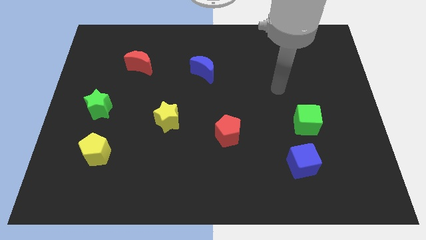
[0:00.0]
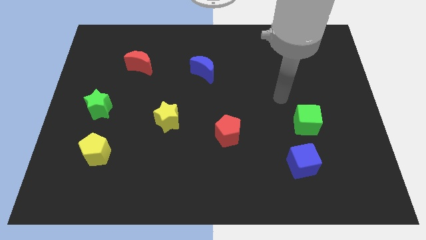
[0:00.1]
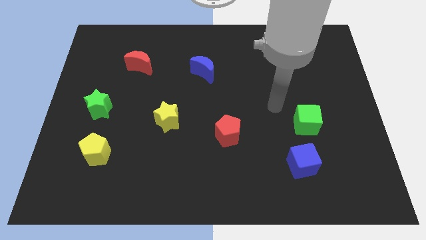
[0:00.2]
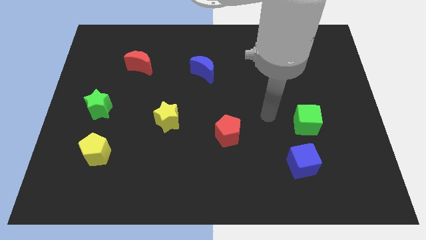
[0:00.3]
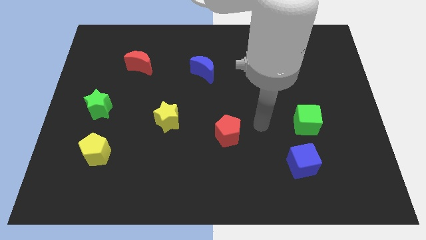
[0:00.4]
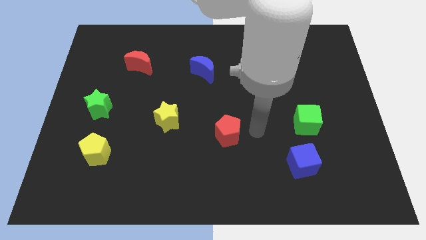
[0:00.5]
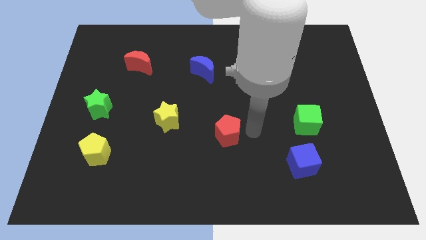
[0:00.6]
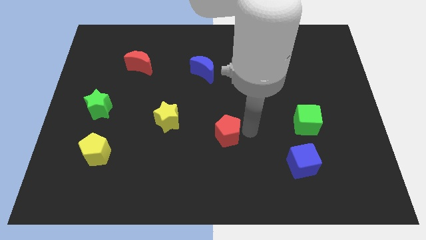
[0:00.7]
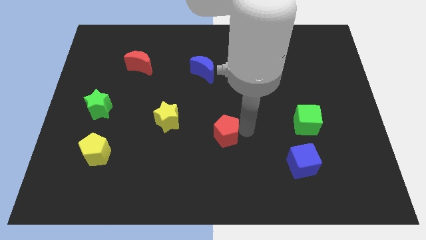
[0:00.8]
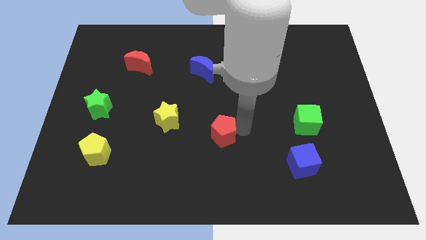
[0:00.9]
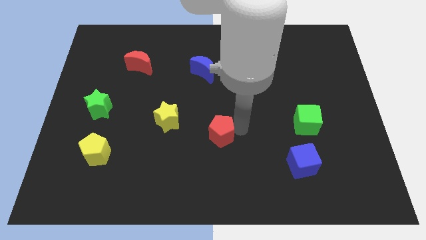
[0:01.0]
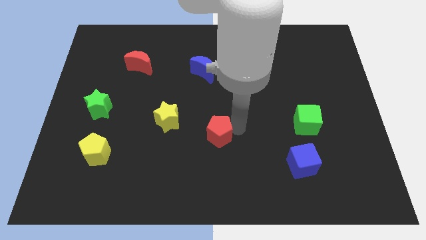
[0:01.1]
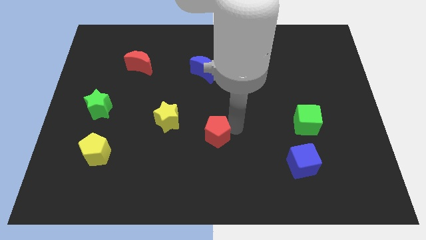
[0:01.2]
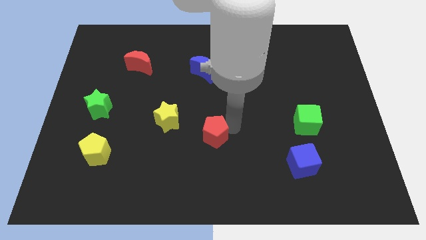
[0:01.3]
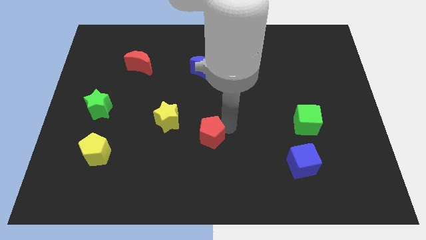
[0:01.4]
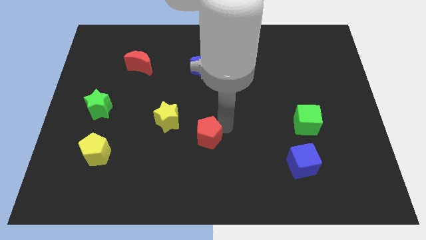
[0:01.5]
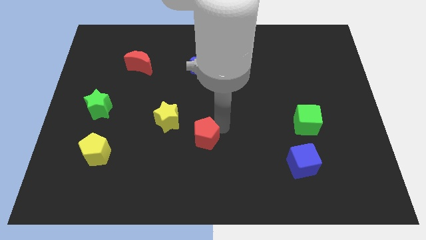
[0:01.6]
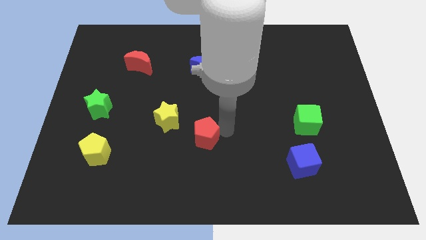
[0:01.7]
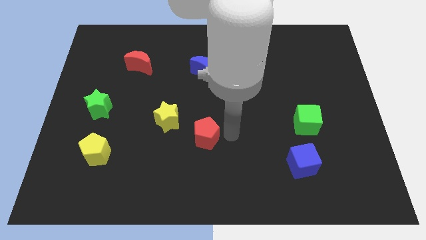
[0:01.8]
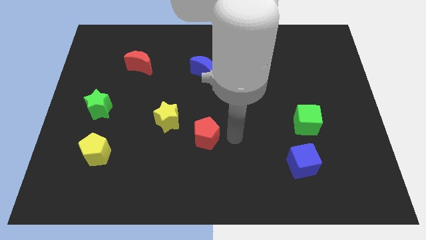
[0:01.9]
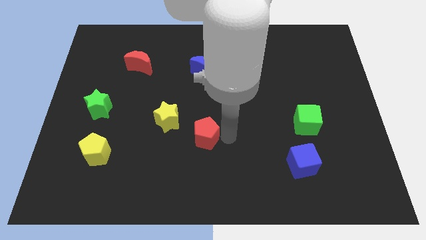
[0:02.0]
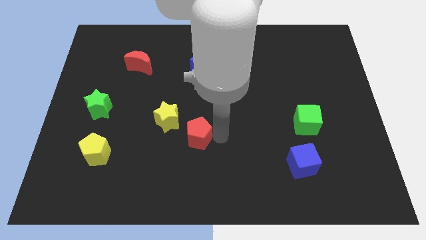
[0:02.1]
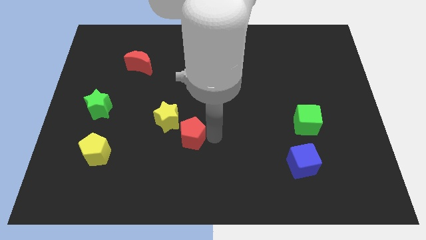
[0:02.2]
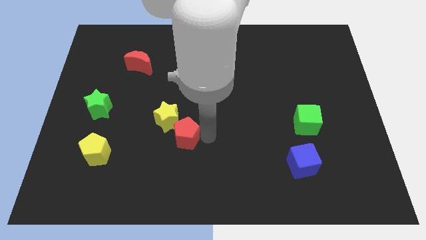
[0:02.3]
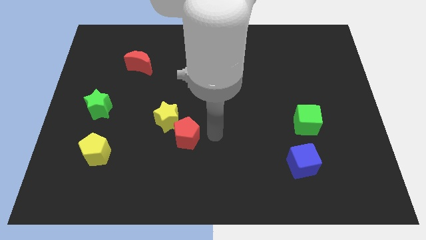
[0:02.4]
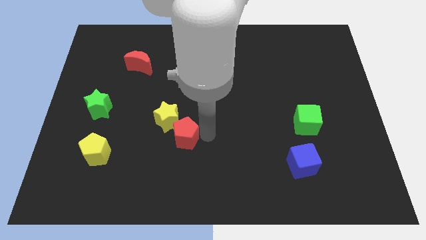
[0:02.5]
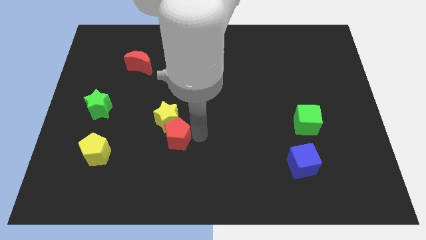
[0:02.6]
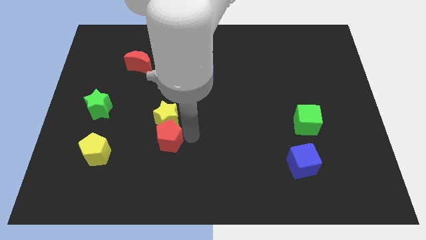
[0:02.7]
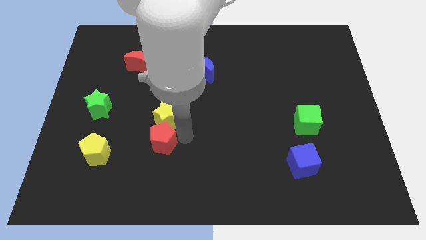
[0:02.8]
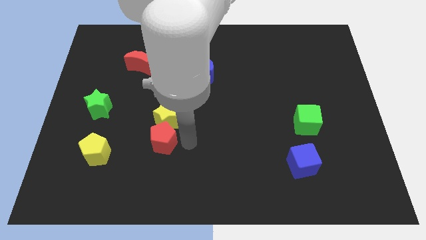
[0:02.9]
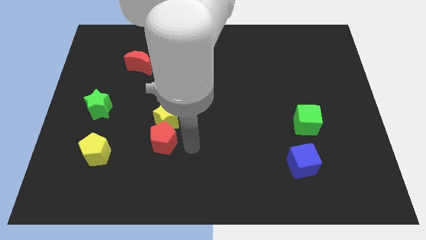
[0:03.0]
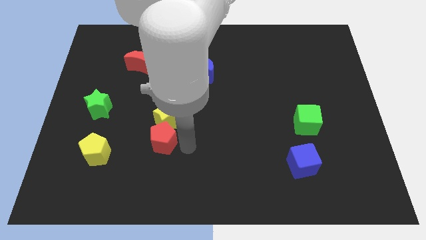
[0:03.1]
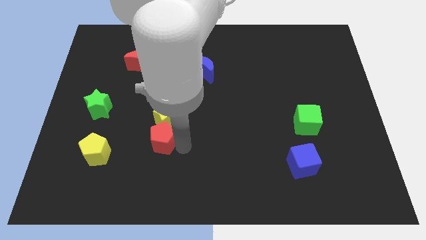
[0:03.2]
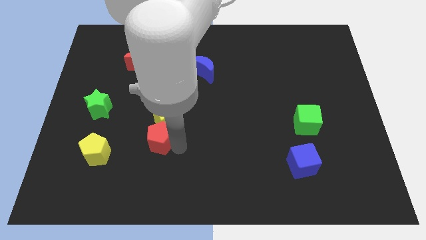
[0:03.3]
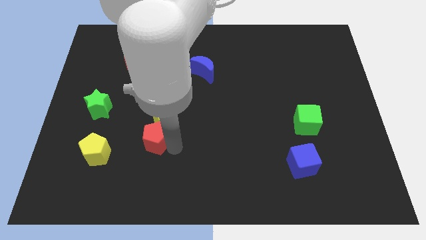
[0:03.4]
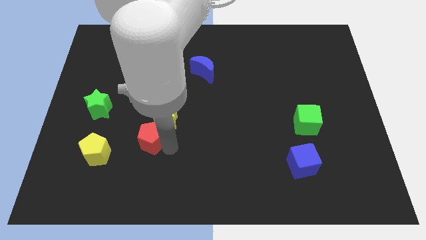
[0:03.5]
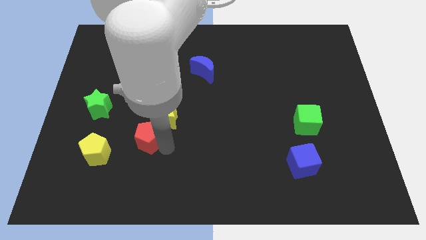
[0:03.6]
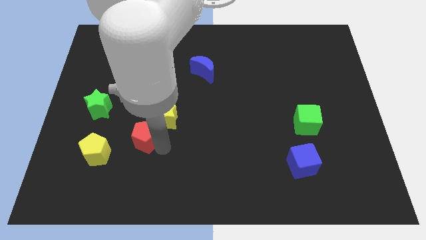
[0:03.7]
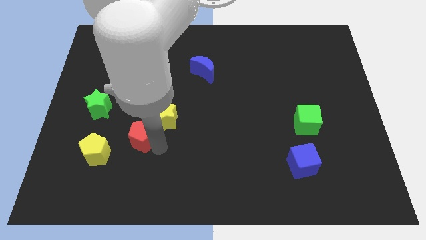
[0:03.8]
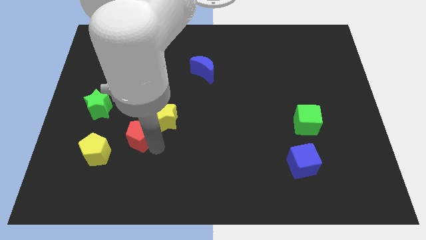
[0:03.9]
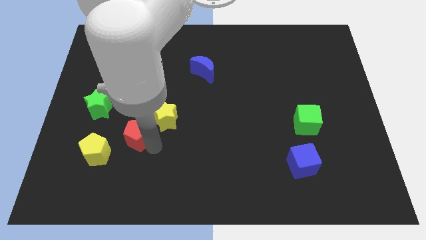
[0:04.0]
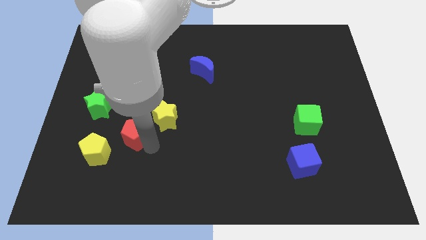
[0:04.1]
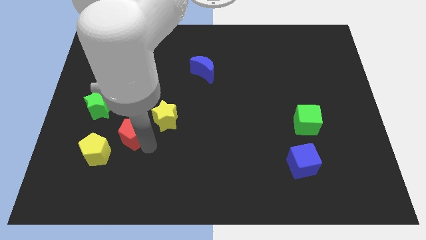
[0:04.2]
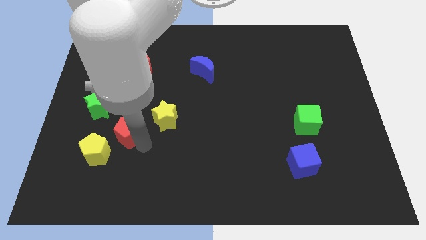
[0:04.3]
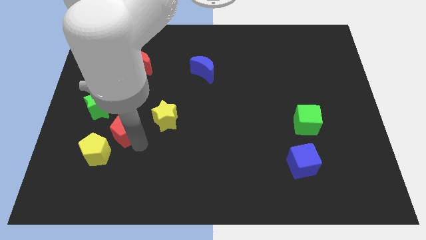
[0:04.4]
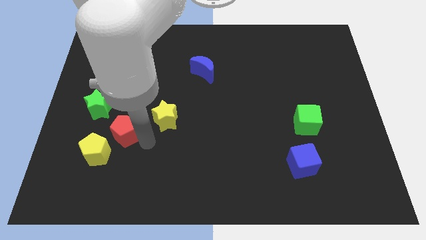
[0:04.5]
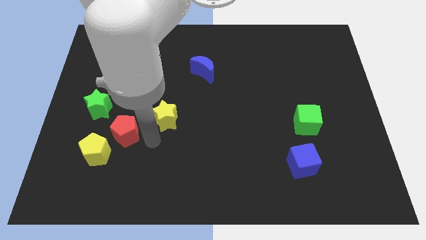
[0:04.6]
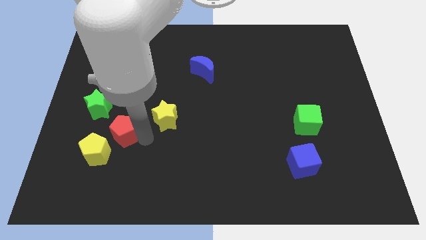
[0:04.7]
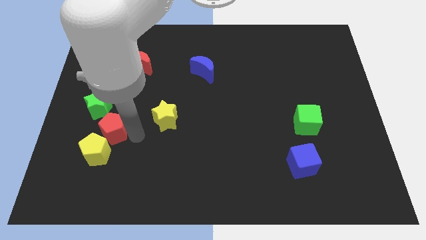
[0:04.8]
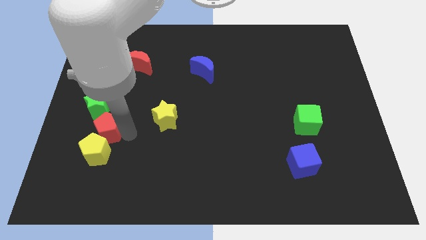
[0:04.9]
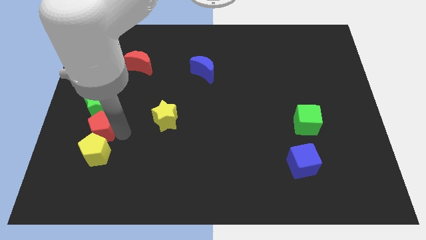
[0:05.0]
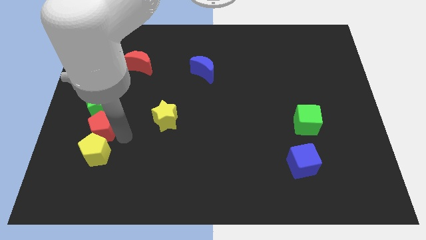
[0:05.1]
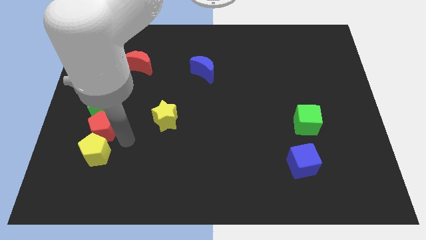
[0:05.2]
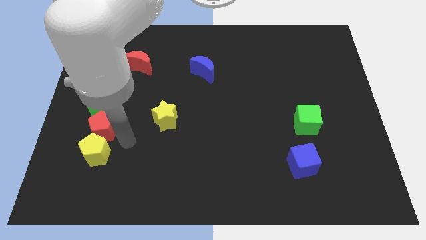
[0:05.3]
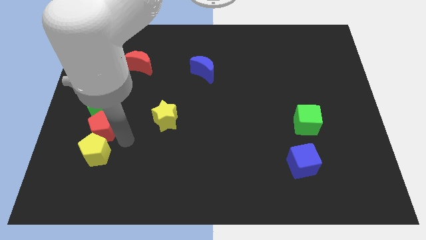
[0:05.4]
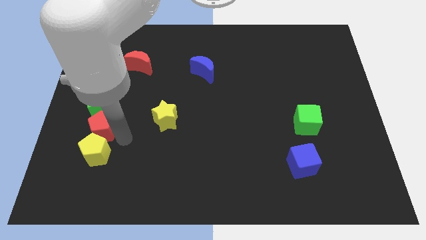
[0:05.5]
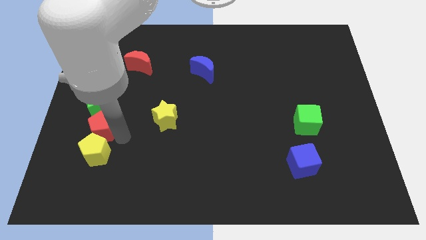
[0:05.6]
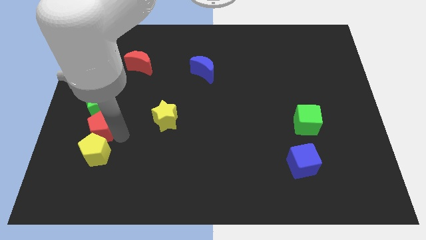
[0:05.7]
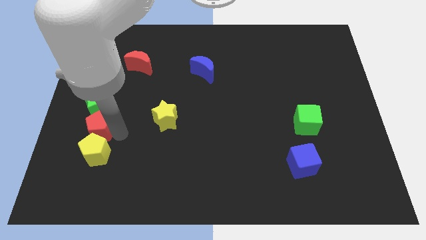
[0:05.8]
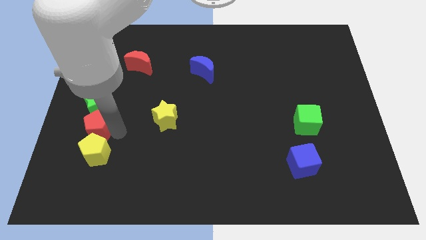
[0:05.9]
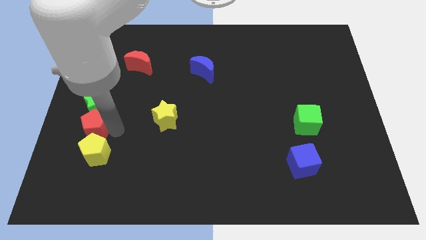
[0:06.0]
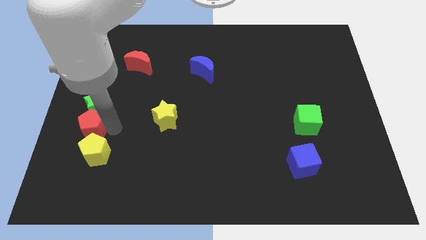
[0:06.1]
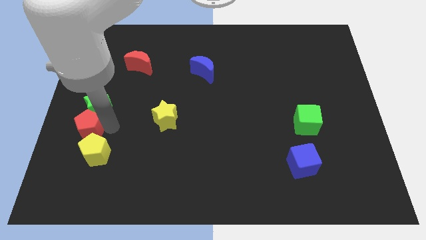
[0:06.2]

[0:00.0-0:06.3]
put the red pentagon to the left side of the board
